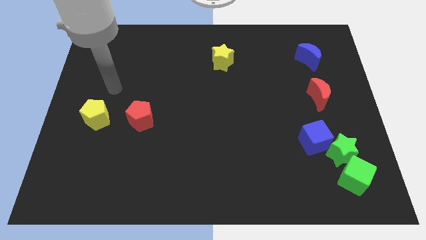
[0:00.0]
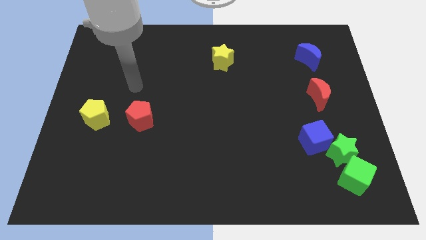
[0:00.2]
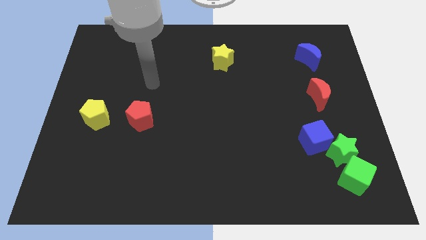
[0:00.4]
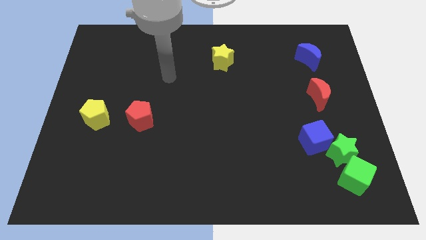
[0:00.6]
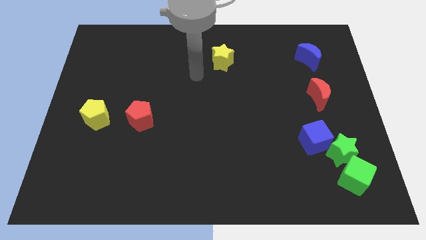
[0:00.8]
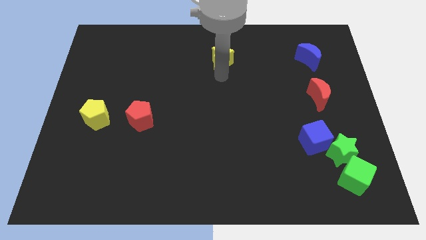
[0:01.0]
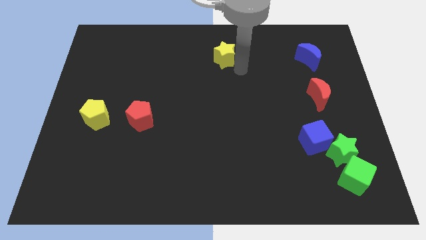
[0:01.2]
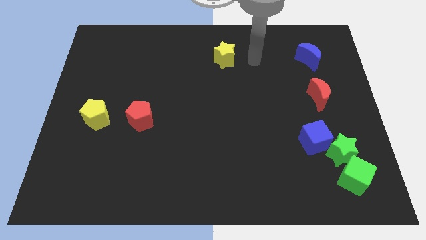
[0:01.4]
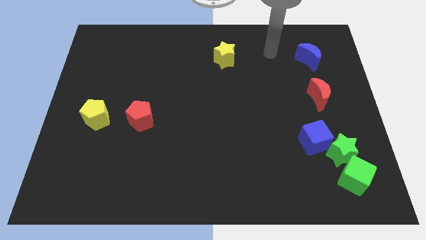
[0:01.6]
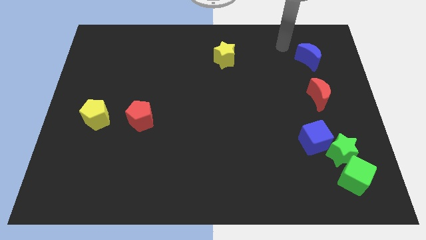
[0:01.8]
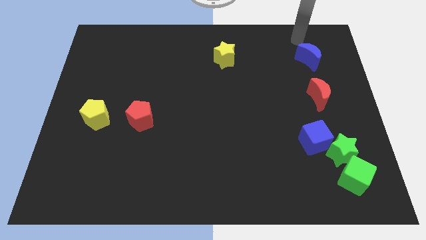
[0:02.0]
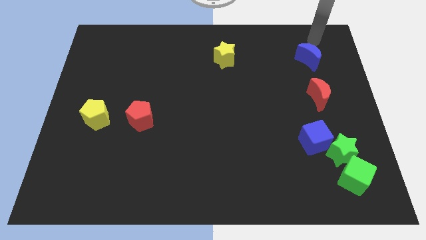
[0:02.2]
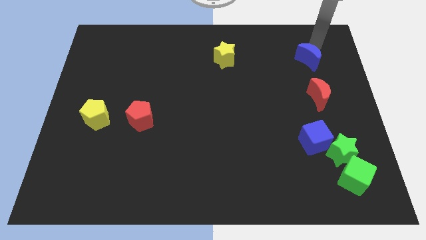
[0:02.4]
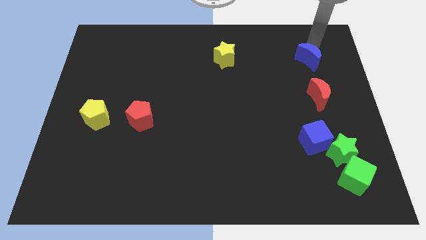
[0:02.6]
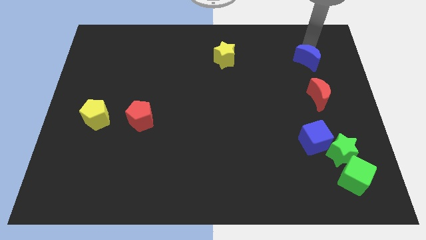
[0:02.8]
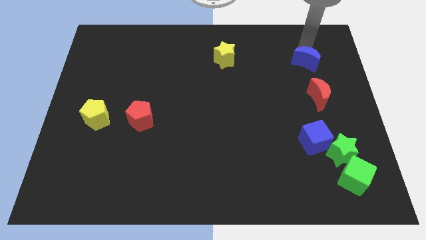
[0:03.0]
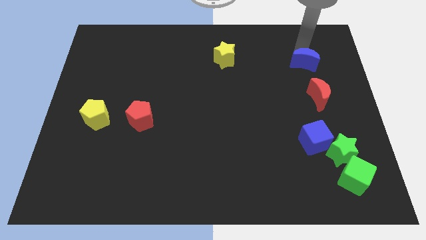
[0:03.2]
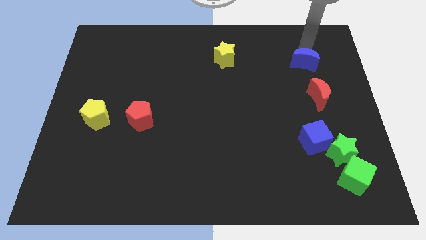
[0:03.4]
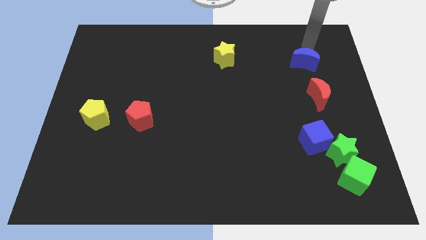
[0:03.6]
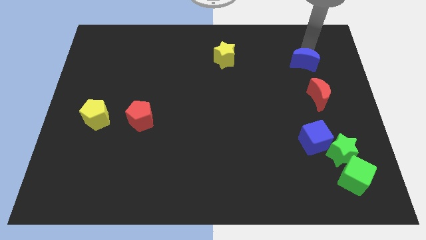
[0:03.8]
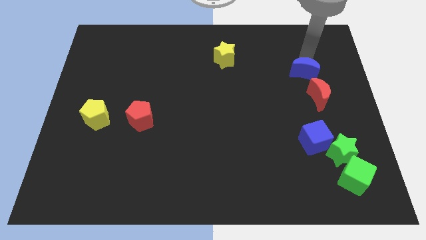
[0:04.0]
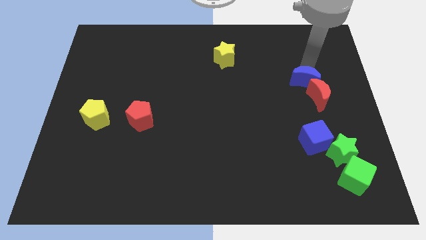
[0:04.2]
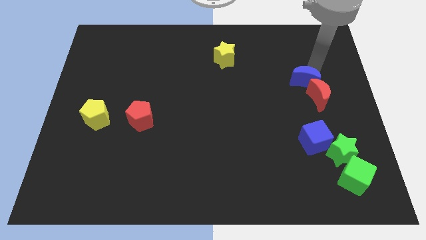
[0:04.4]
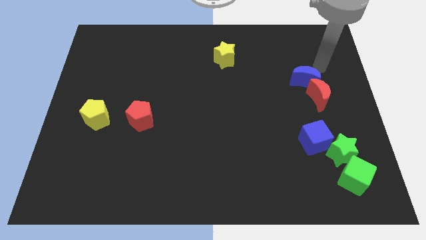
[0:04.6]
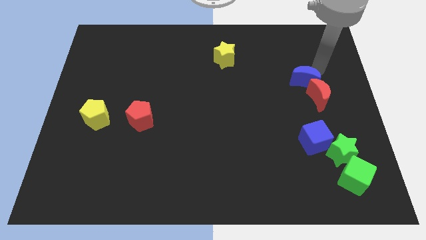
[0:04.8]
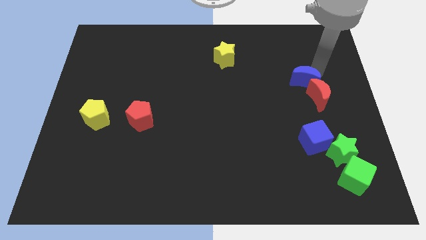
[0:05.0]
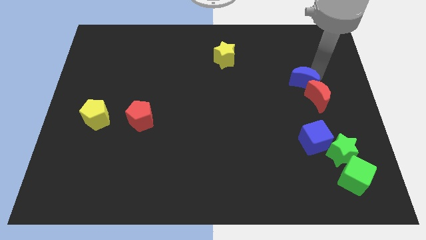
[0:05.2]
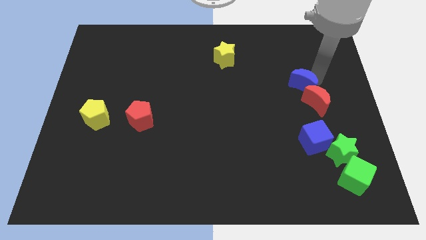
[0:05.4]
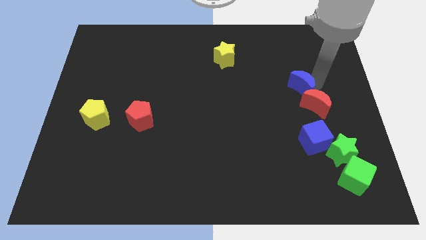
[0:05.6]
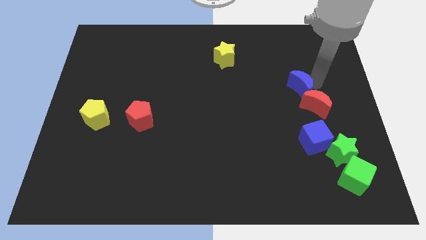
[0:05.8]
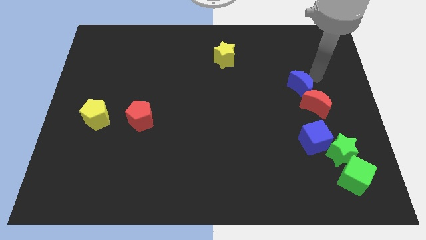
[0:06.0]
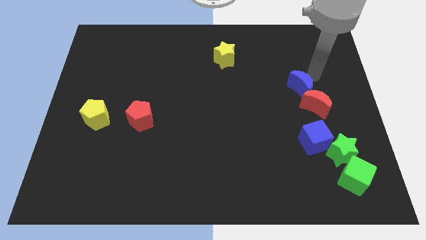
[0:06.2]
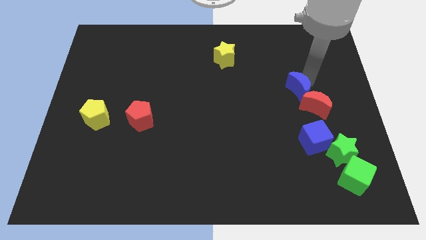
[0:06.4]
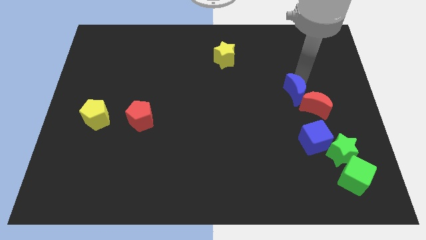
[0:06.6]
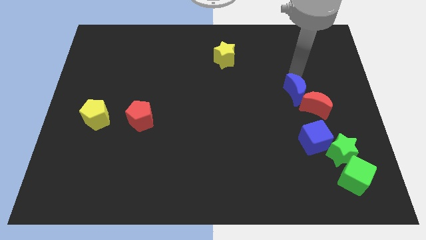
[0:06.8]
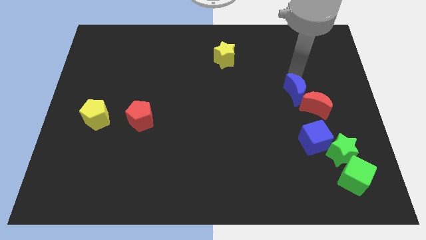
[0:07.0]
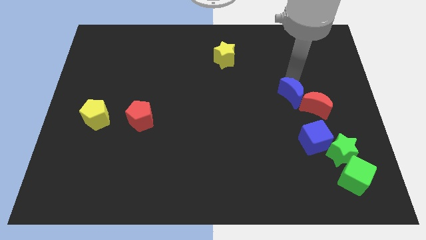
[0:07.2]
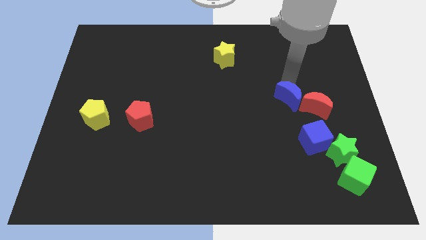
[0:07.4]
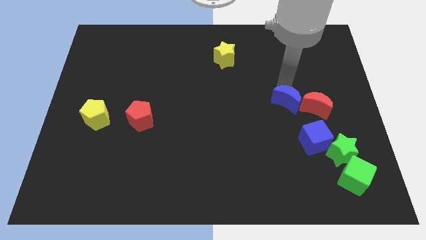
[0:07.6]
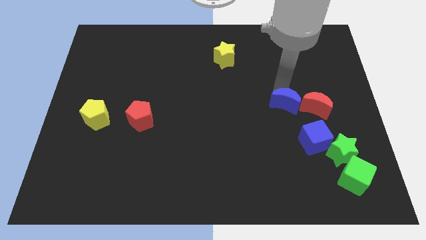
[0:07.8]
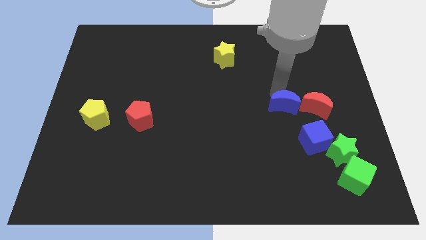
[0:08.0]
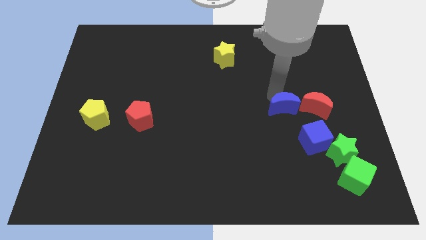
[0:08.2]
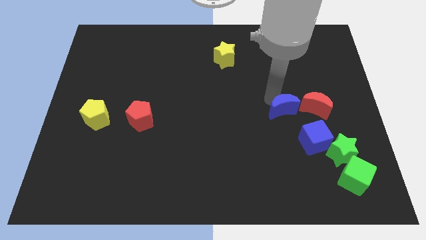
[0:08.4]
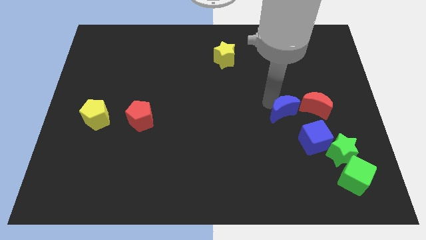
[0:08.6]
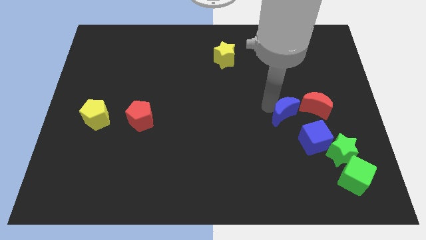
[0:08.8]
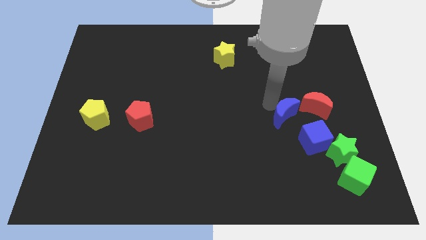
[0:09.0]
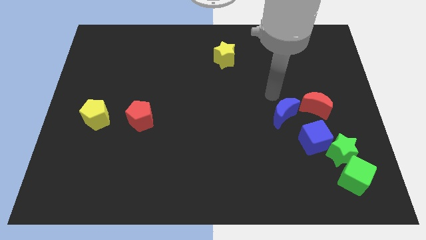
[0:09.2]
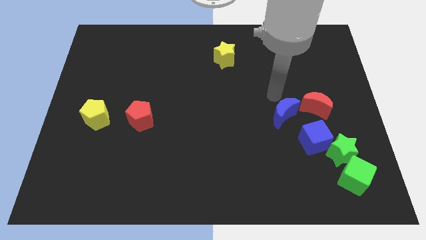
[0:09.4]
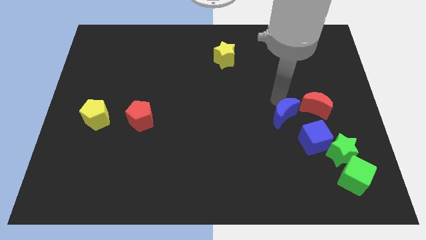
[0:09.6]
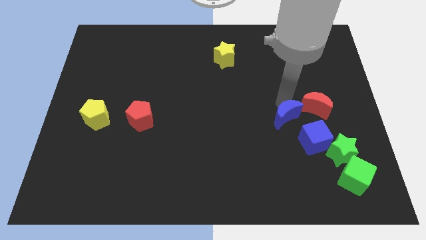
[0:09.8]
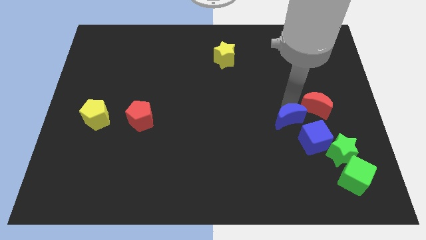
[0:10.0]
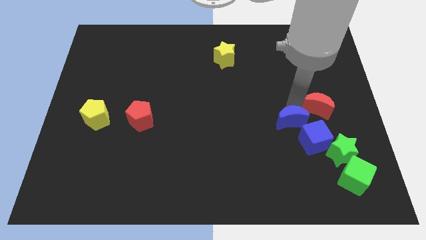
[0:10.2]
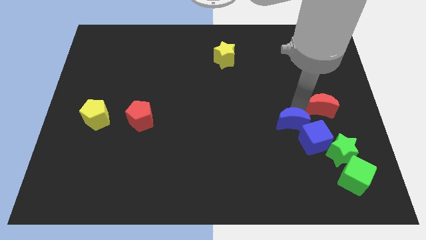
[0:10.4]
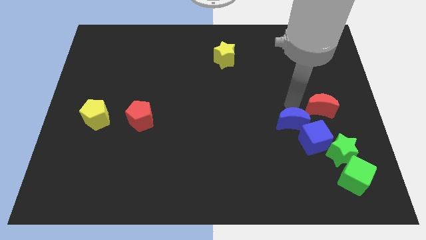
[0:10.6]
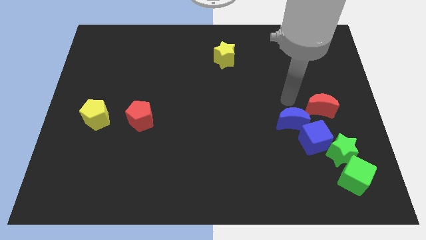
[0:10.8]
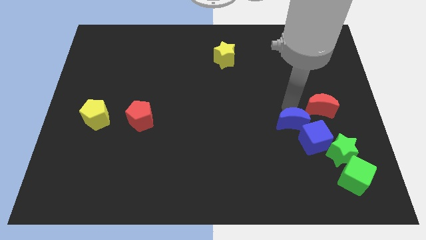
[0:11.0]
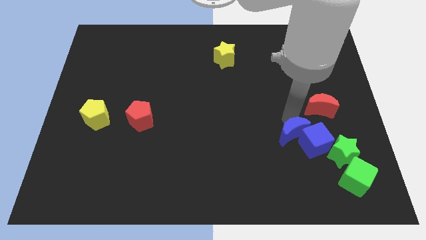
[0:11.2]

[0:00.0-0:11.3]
move the blue moon downwards

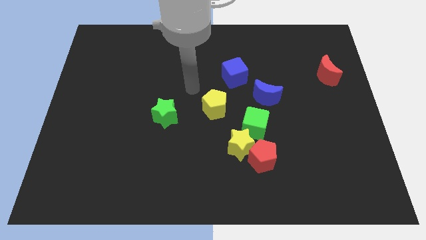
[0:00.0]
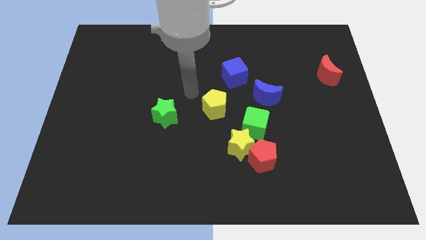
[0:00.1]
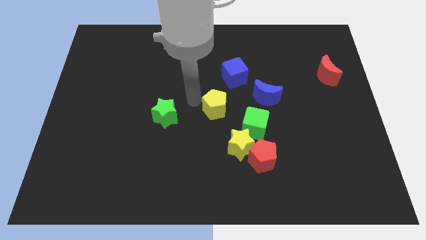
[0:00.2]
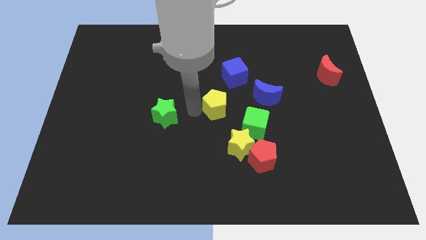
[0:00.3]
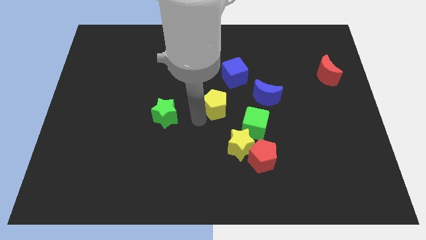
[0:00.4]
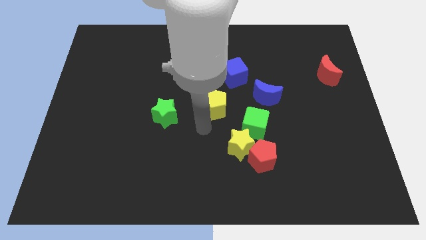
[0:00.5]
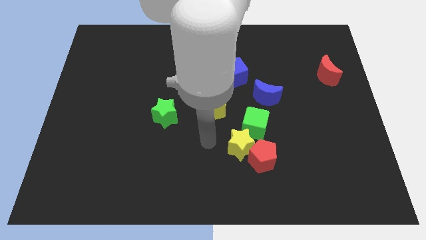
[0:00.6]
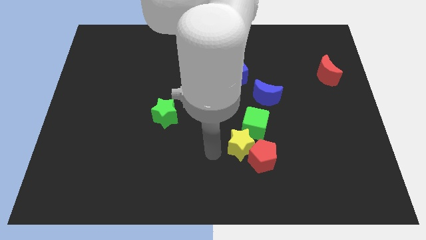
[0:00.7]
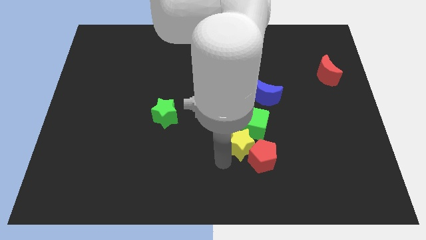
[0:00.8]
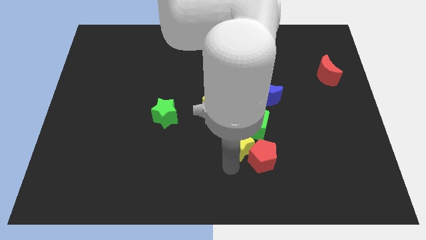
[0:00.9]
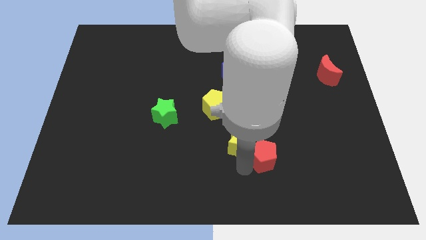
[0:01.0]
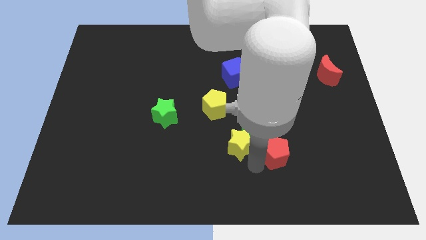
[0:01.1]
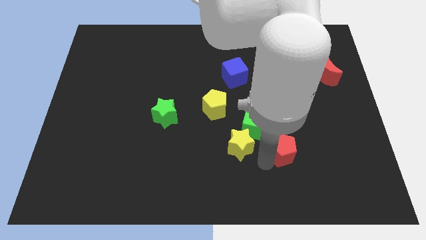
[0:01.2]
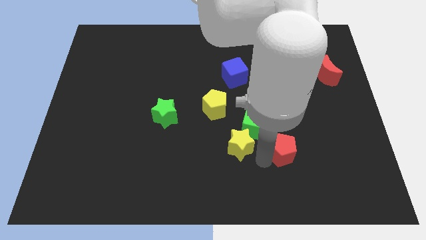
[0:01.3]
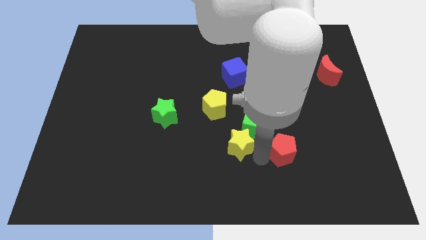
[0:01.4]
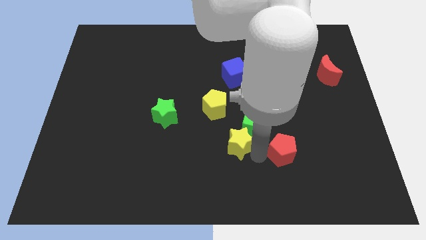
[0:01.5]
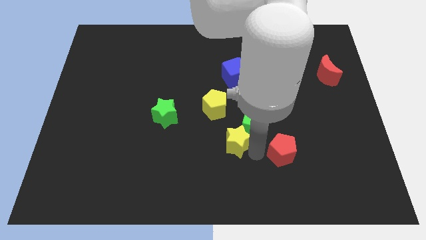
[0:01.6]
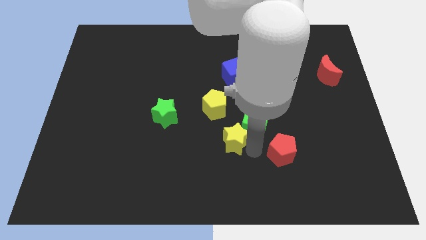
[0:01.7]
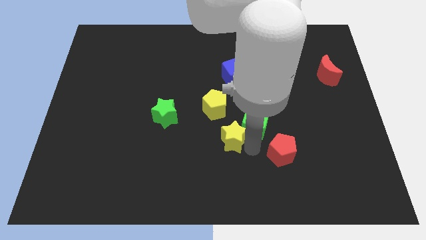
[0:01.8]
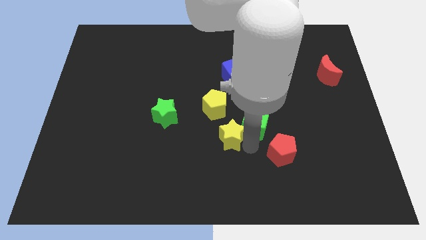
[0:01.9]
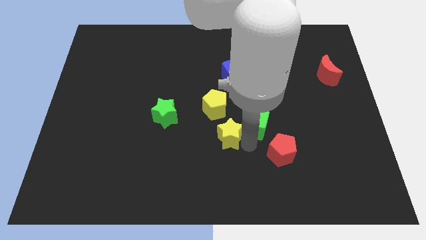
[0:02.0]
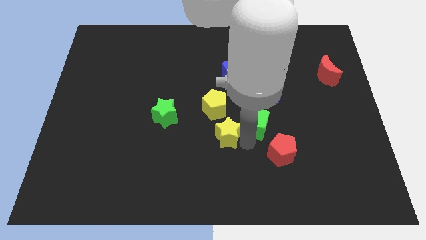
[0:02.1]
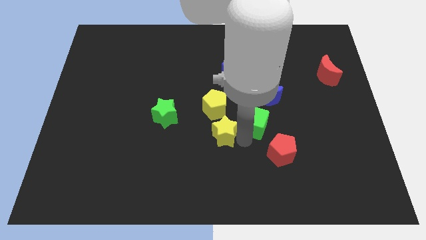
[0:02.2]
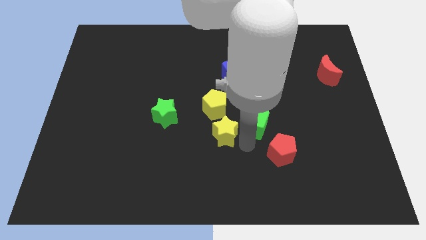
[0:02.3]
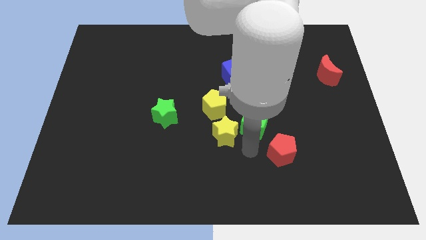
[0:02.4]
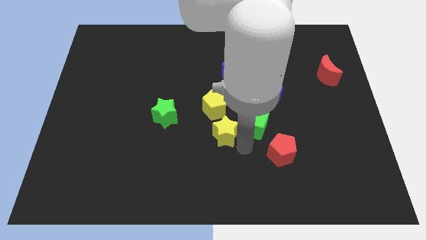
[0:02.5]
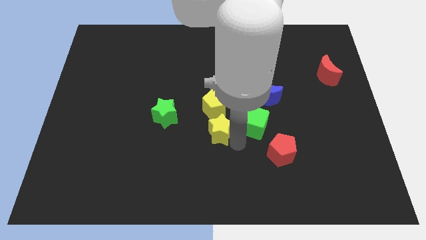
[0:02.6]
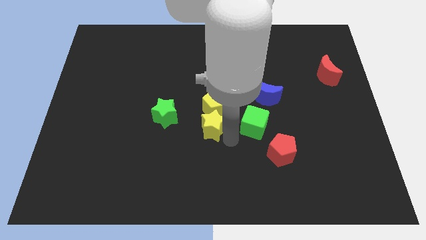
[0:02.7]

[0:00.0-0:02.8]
slide the yellow star up and then to the left somewhat
